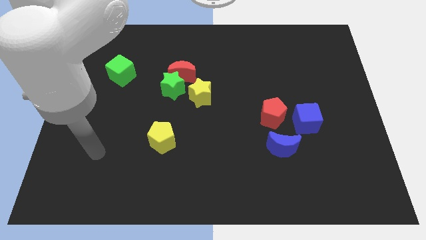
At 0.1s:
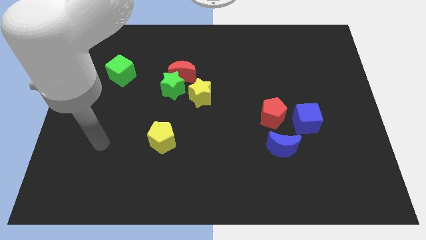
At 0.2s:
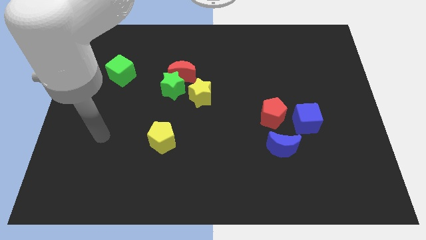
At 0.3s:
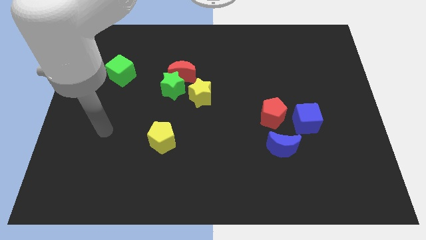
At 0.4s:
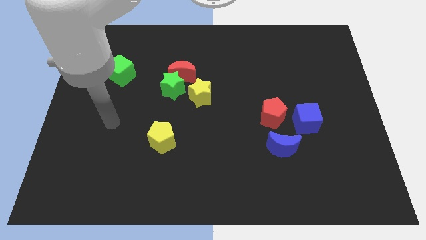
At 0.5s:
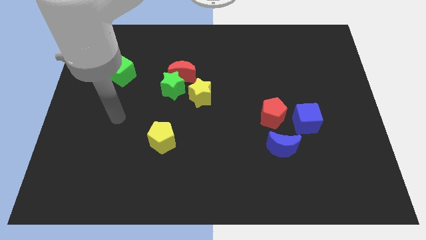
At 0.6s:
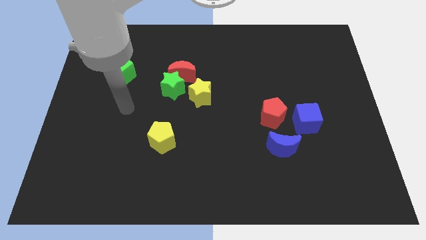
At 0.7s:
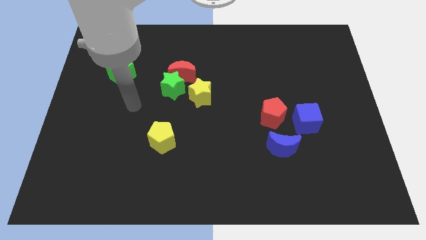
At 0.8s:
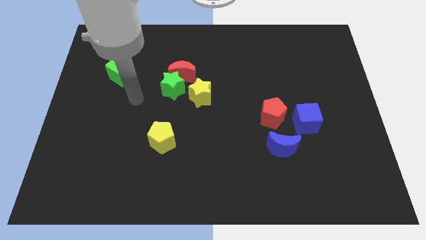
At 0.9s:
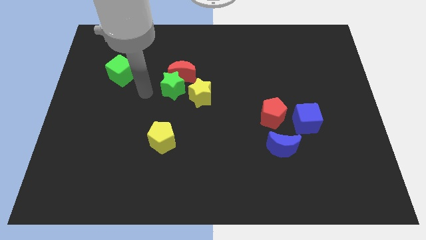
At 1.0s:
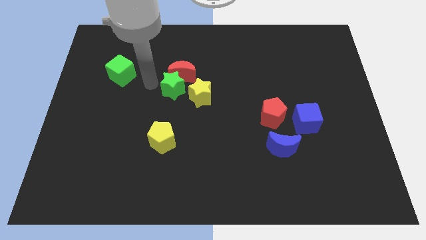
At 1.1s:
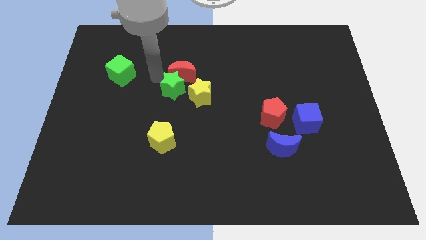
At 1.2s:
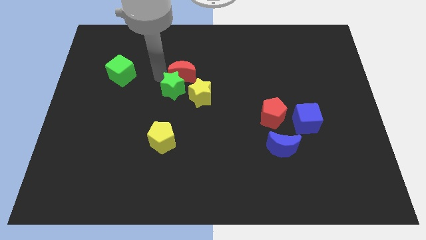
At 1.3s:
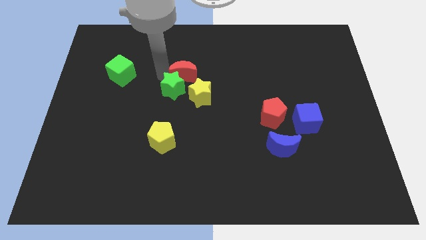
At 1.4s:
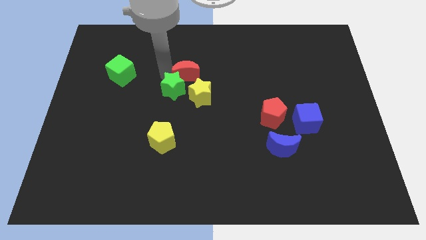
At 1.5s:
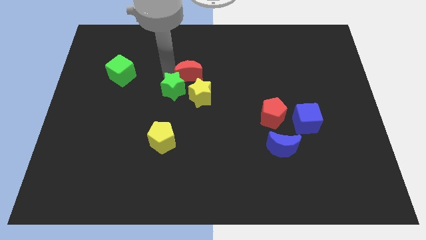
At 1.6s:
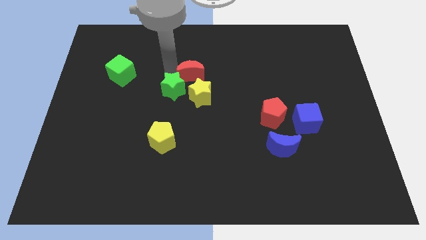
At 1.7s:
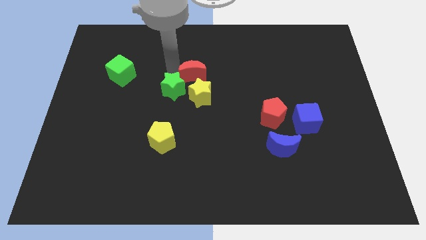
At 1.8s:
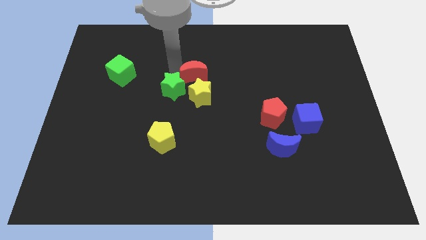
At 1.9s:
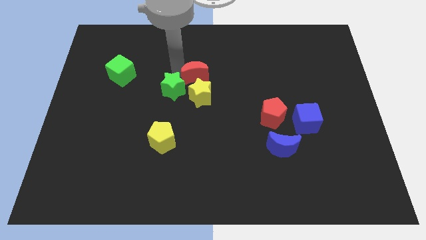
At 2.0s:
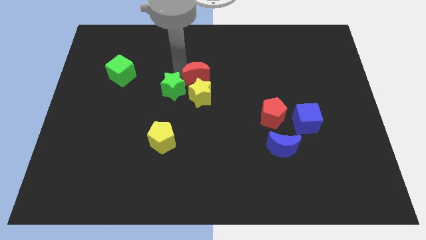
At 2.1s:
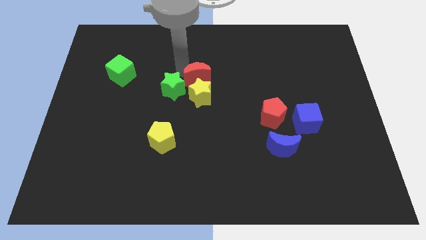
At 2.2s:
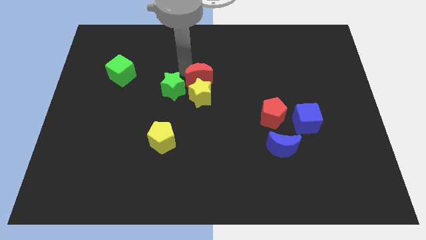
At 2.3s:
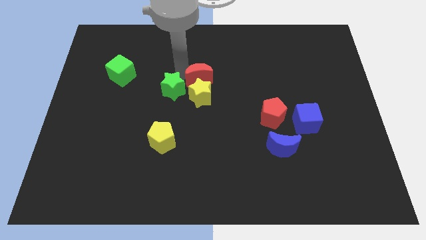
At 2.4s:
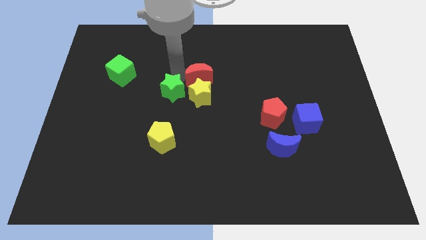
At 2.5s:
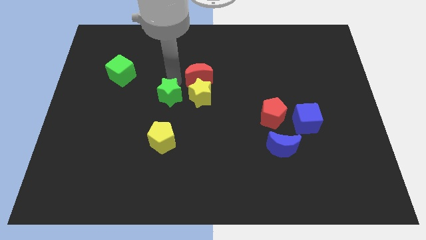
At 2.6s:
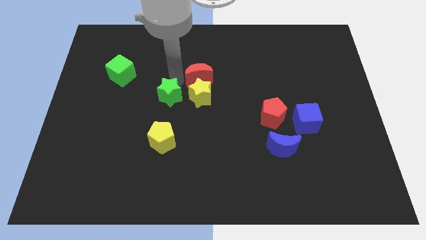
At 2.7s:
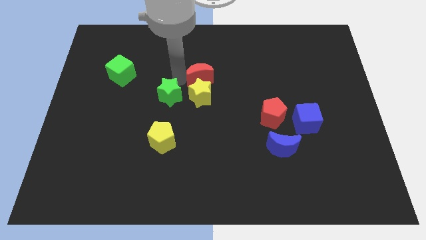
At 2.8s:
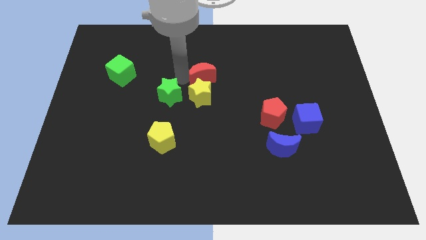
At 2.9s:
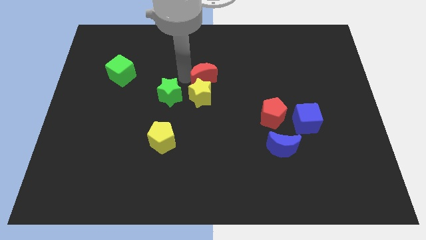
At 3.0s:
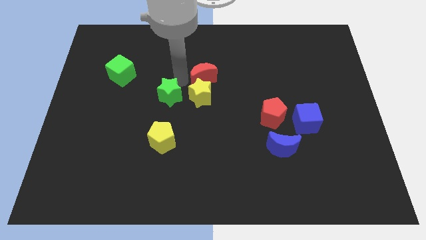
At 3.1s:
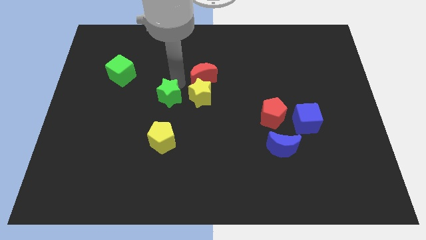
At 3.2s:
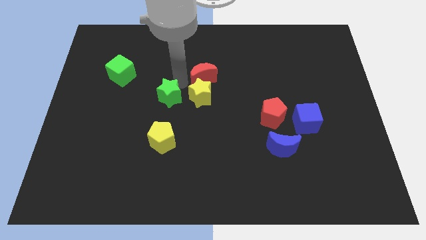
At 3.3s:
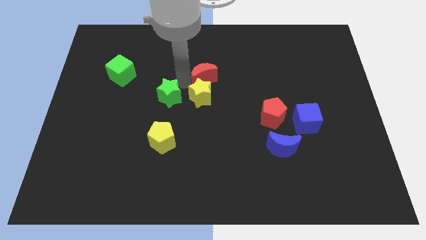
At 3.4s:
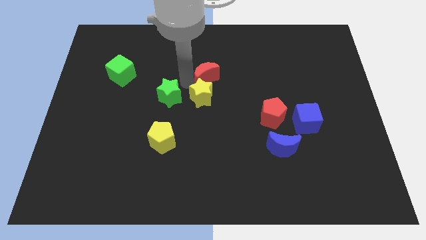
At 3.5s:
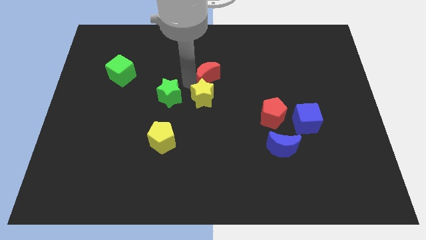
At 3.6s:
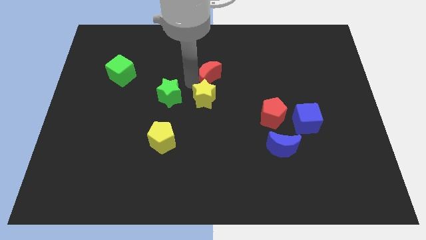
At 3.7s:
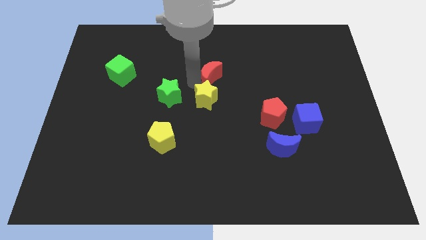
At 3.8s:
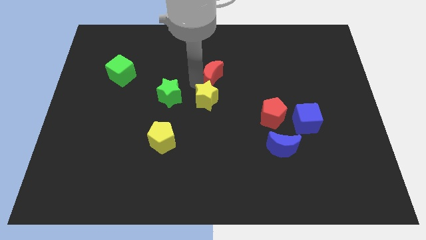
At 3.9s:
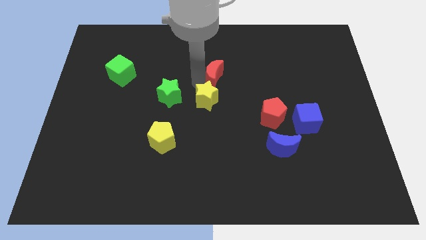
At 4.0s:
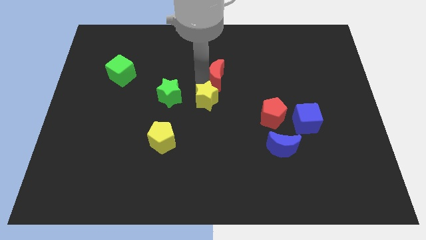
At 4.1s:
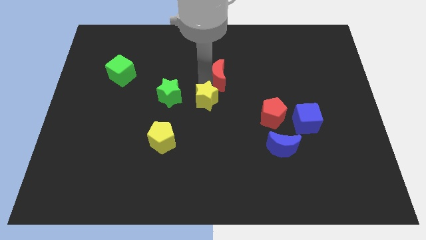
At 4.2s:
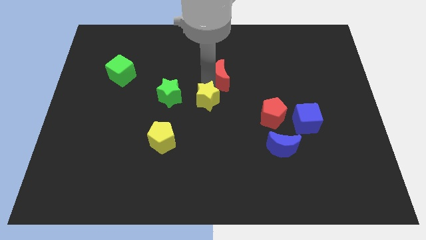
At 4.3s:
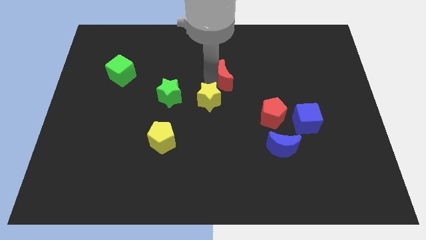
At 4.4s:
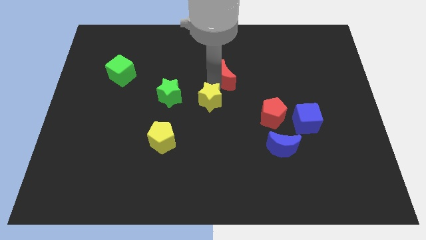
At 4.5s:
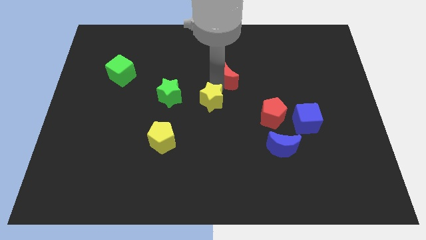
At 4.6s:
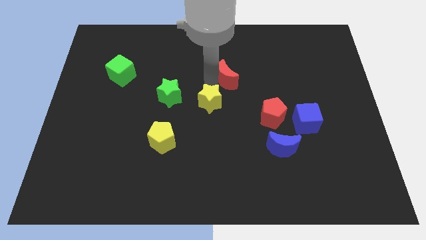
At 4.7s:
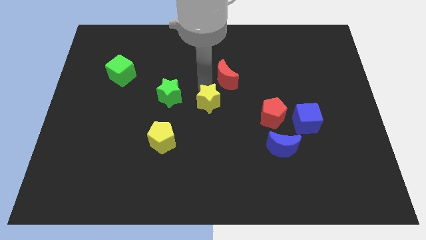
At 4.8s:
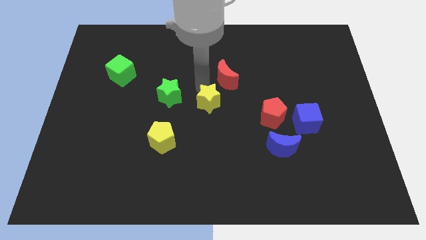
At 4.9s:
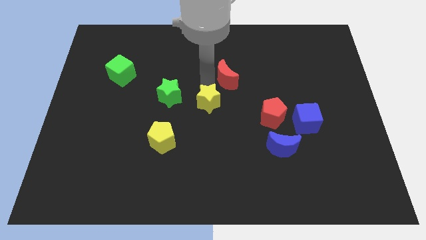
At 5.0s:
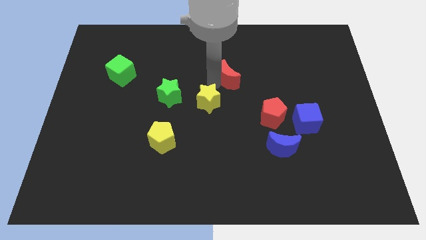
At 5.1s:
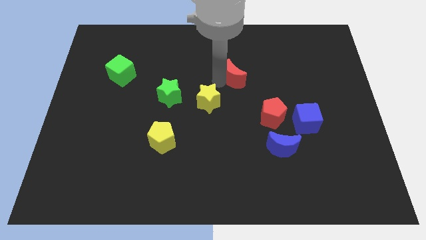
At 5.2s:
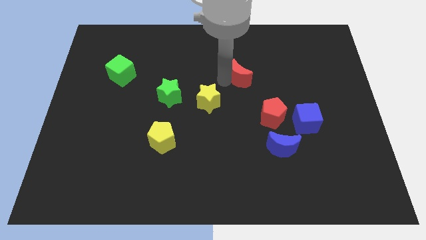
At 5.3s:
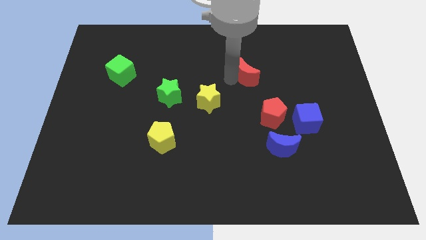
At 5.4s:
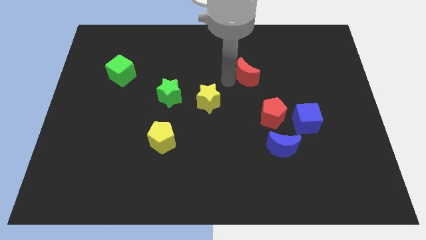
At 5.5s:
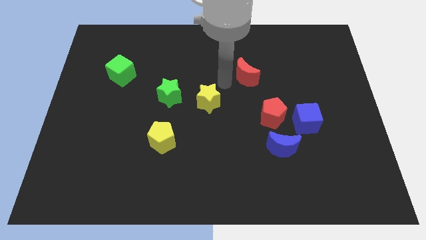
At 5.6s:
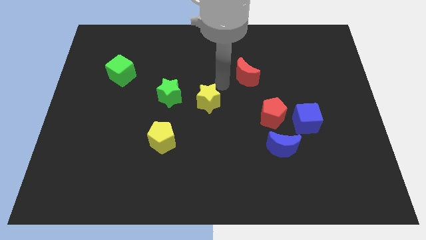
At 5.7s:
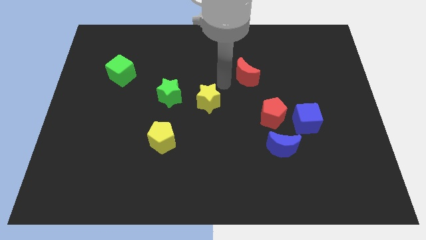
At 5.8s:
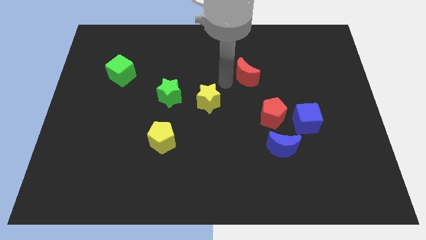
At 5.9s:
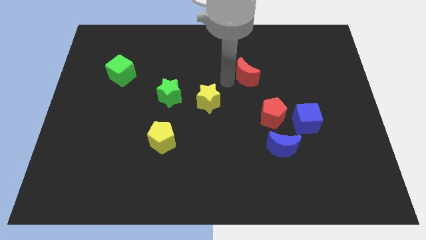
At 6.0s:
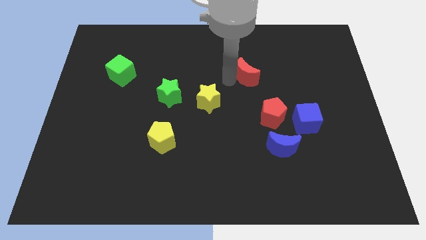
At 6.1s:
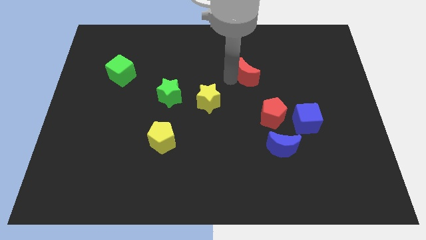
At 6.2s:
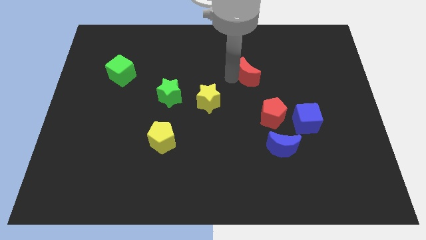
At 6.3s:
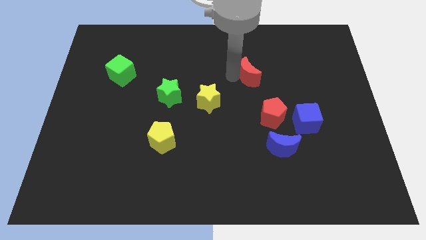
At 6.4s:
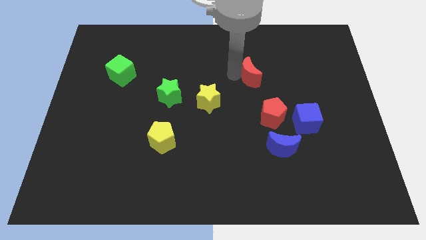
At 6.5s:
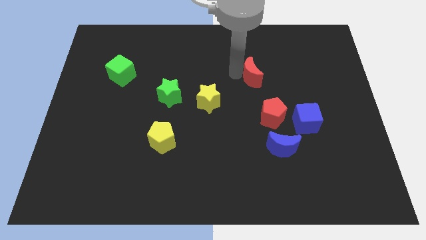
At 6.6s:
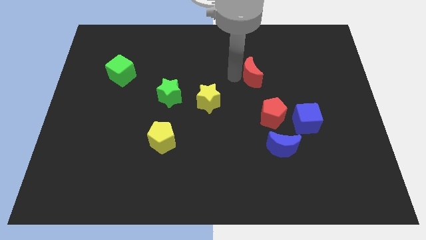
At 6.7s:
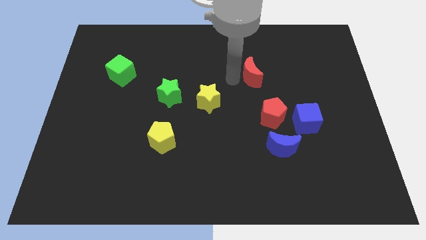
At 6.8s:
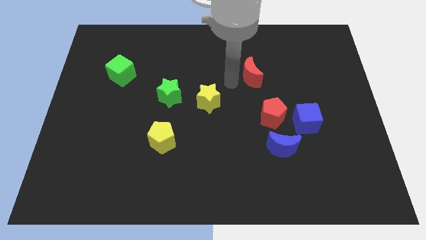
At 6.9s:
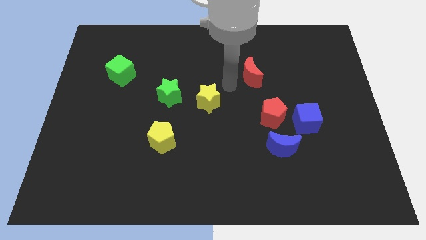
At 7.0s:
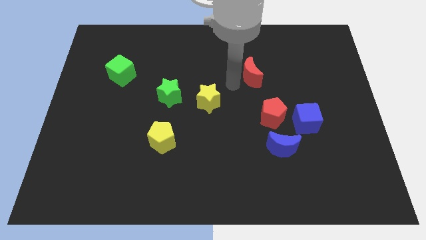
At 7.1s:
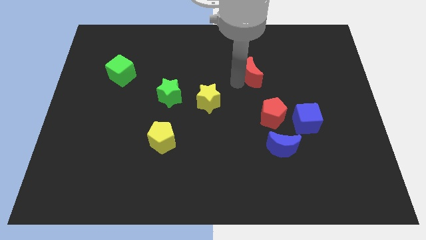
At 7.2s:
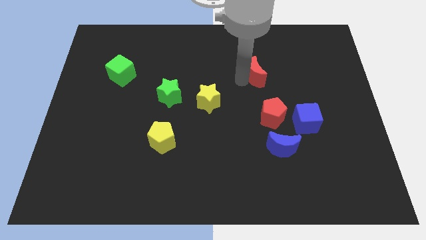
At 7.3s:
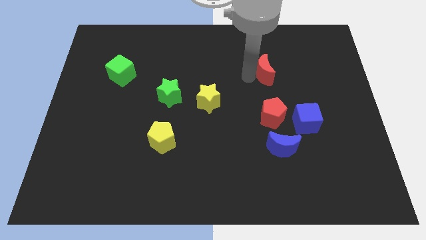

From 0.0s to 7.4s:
move the red moon right

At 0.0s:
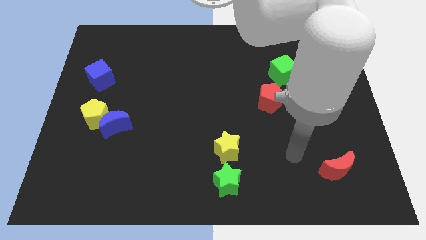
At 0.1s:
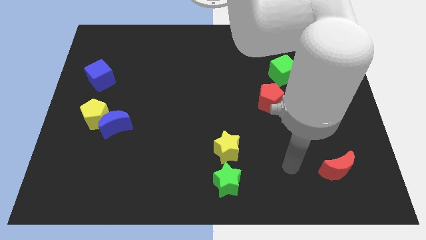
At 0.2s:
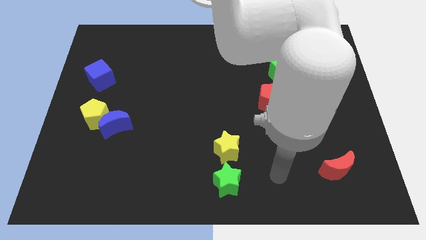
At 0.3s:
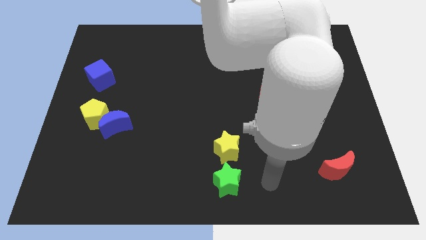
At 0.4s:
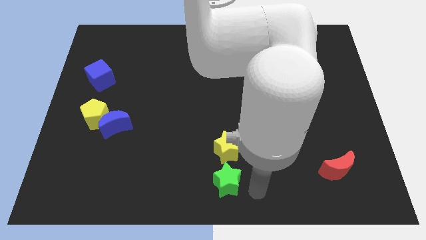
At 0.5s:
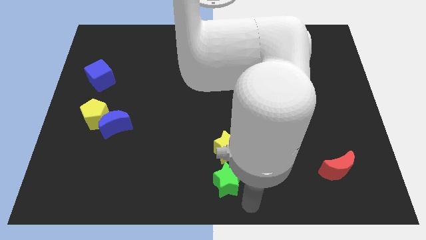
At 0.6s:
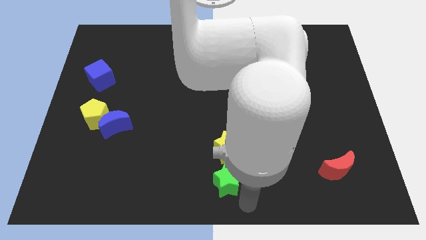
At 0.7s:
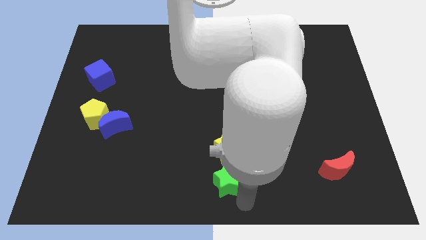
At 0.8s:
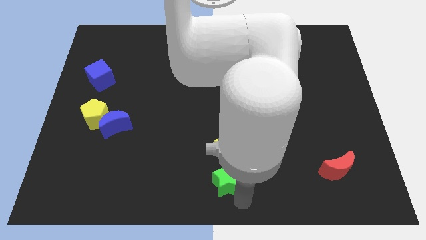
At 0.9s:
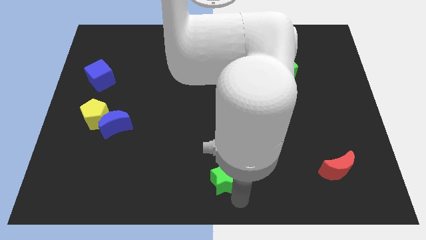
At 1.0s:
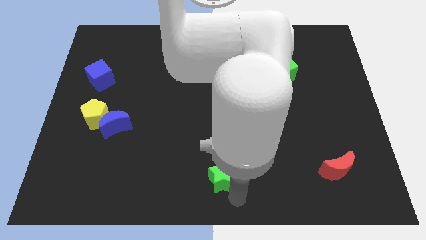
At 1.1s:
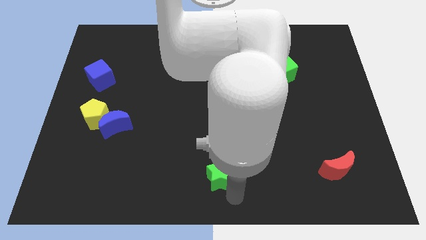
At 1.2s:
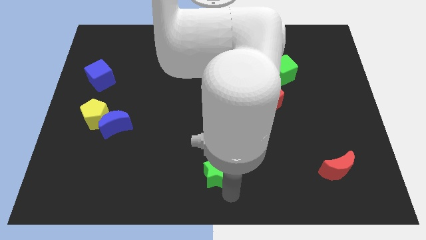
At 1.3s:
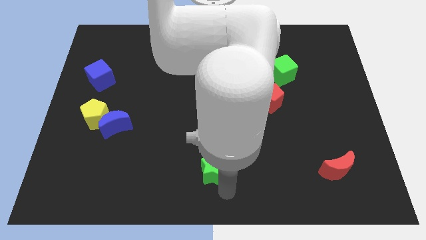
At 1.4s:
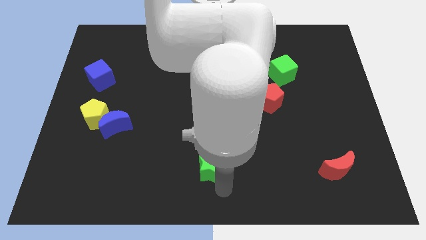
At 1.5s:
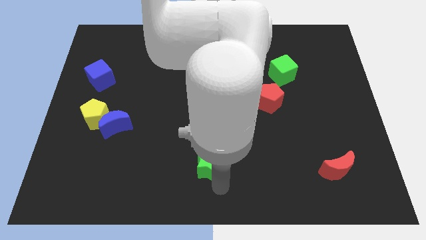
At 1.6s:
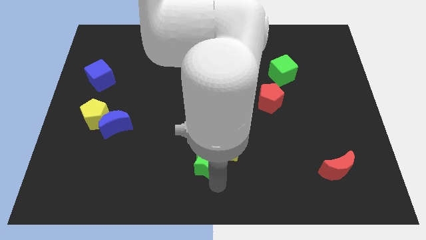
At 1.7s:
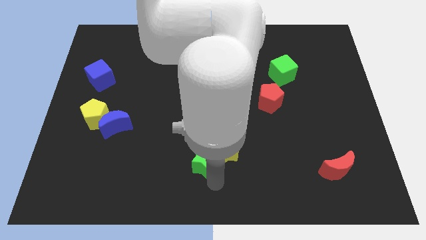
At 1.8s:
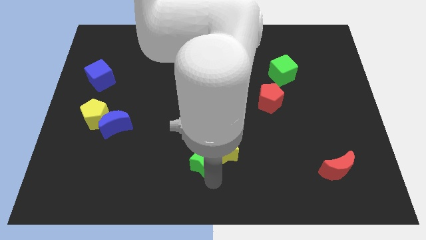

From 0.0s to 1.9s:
slightly push the green star upwards and then left
